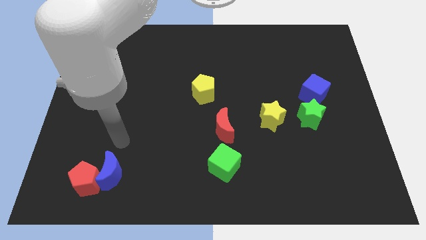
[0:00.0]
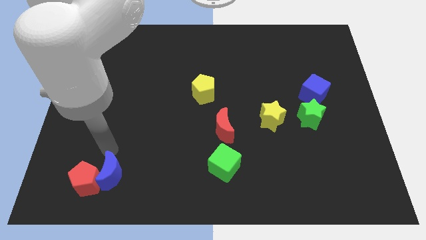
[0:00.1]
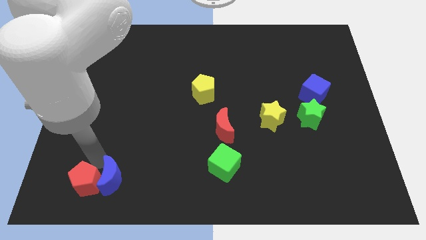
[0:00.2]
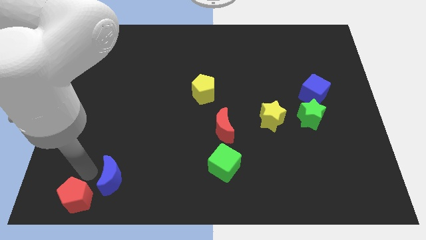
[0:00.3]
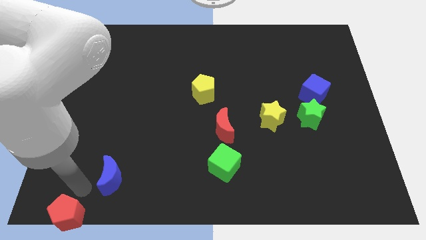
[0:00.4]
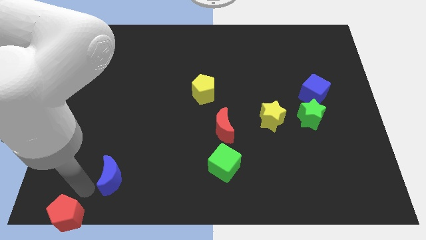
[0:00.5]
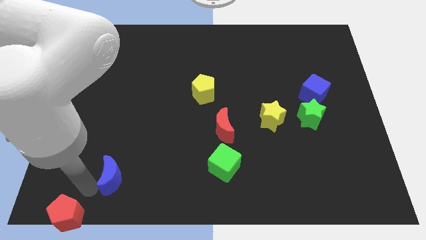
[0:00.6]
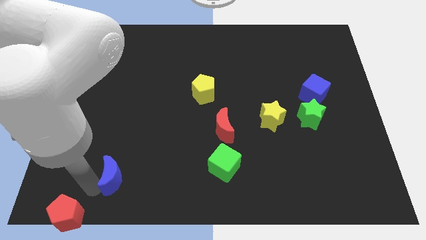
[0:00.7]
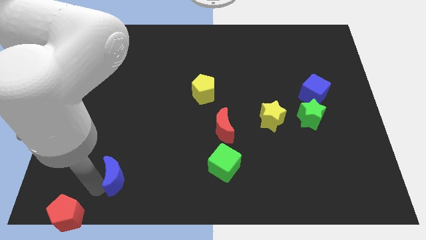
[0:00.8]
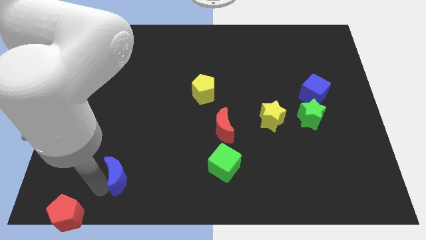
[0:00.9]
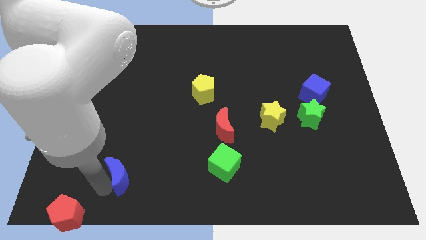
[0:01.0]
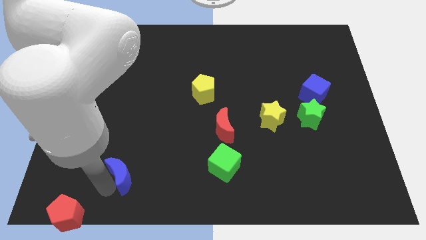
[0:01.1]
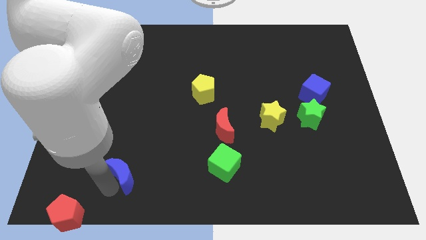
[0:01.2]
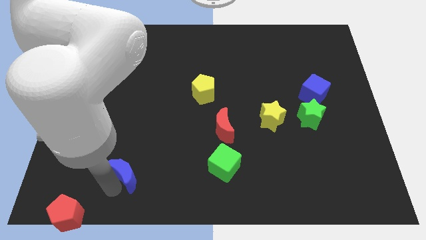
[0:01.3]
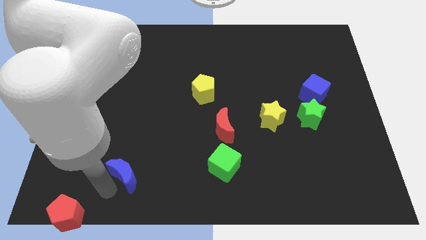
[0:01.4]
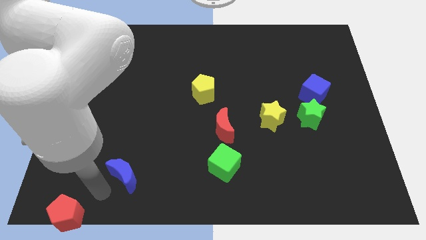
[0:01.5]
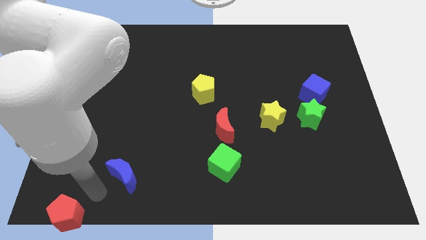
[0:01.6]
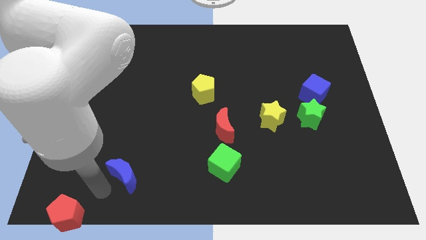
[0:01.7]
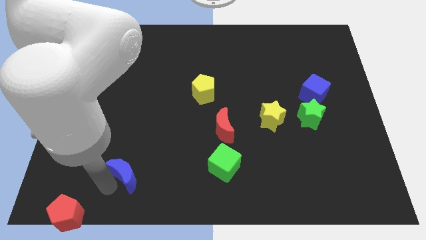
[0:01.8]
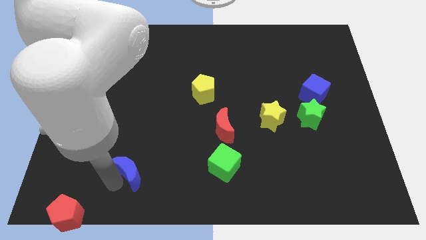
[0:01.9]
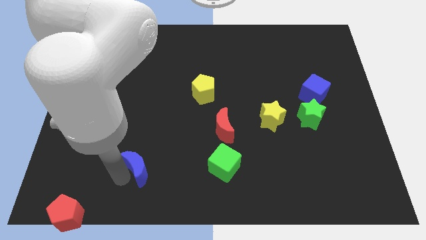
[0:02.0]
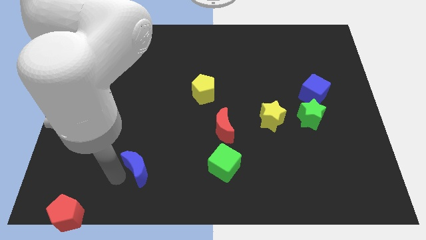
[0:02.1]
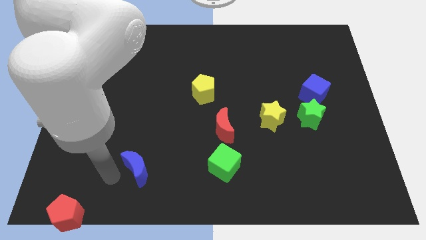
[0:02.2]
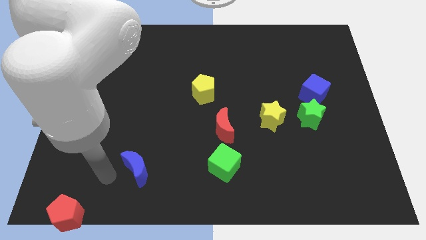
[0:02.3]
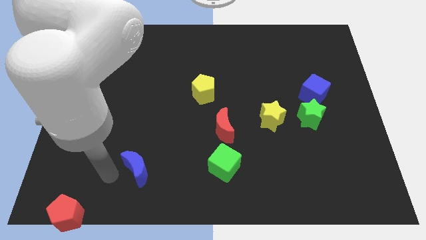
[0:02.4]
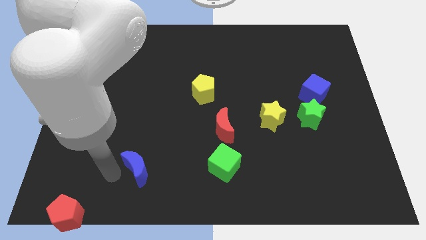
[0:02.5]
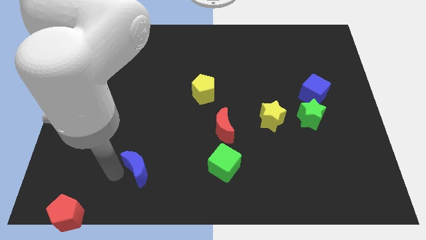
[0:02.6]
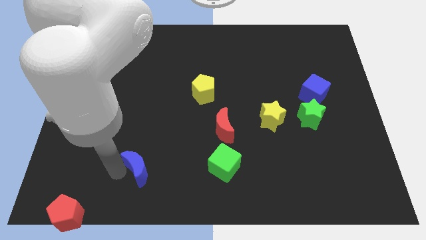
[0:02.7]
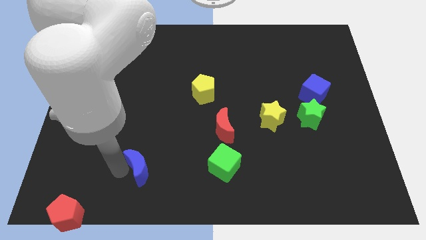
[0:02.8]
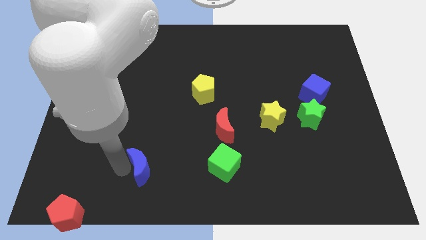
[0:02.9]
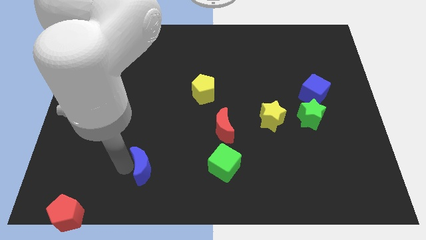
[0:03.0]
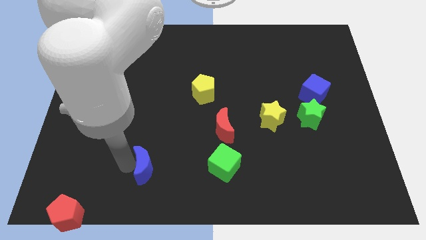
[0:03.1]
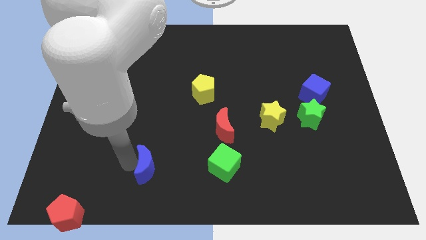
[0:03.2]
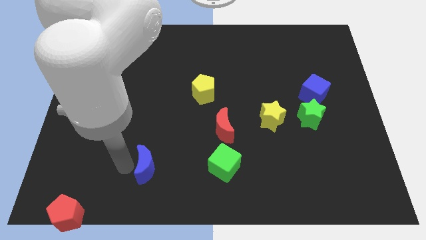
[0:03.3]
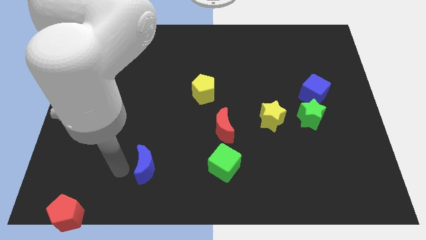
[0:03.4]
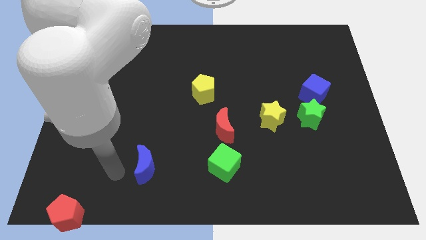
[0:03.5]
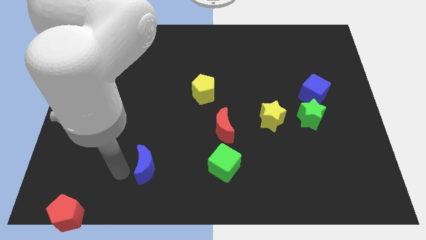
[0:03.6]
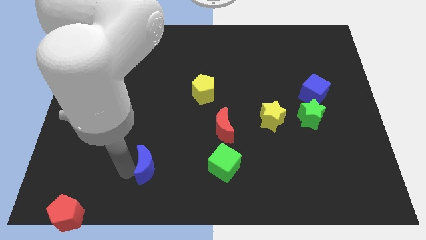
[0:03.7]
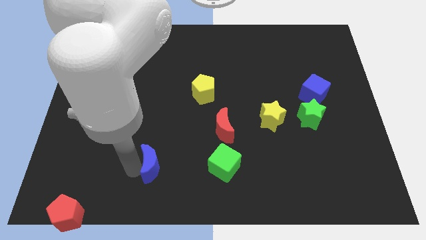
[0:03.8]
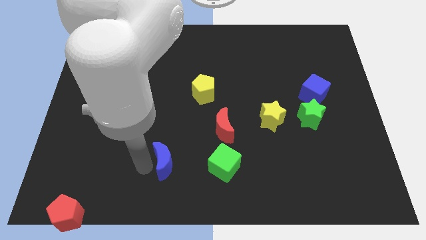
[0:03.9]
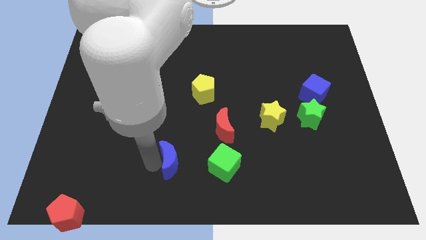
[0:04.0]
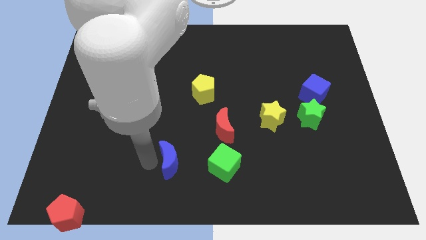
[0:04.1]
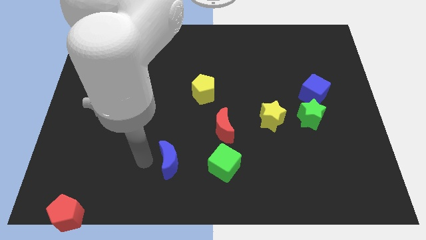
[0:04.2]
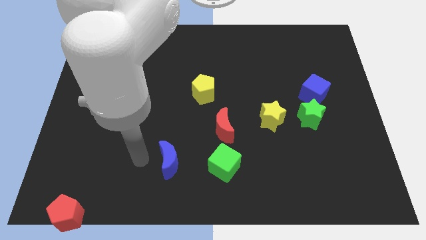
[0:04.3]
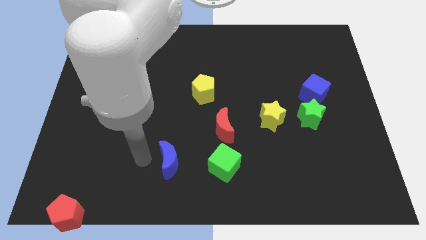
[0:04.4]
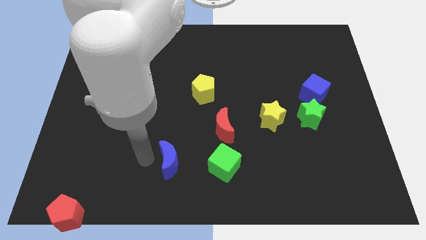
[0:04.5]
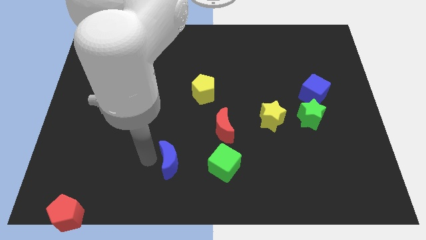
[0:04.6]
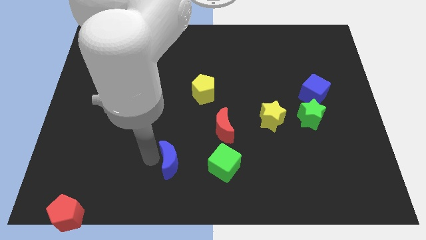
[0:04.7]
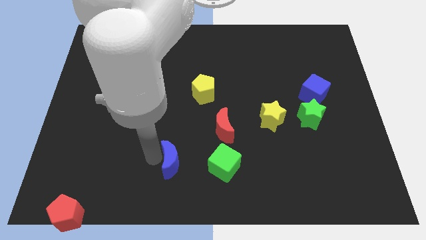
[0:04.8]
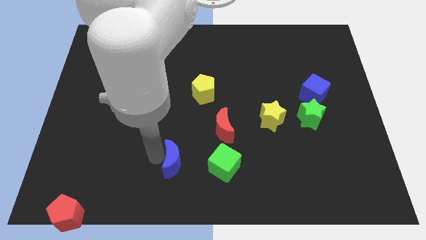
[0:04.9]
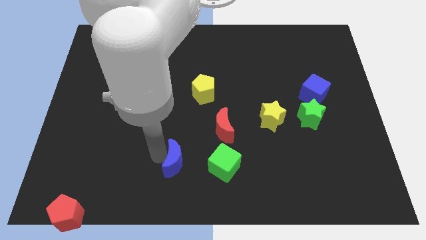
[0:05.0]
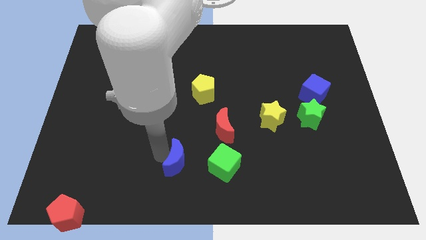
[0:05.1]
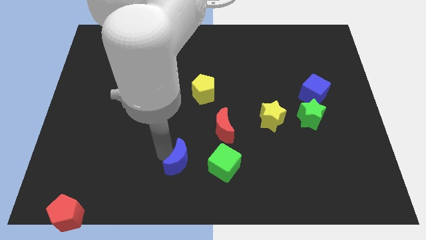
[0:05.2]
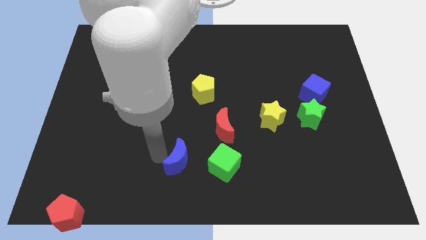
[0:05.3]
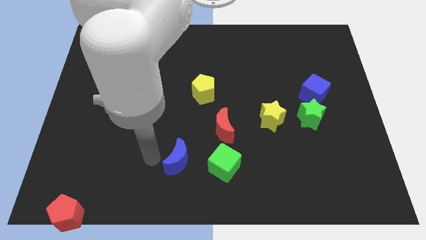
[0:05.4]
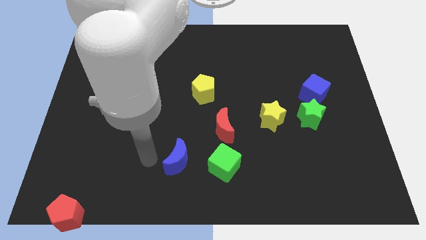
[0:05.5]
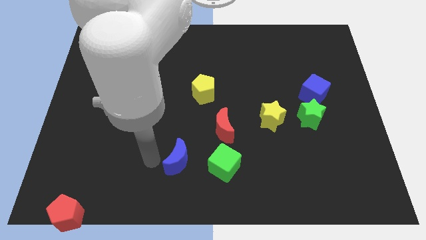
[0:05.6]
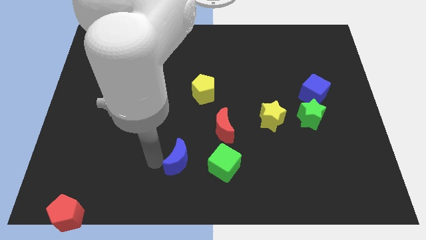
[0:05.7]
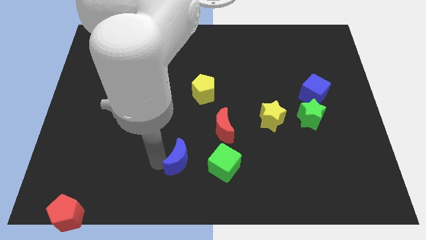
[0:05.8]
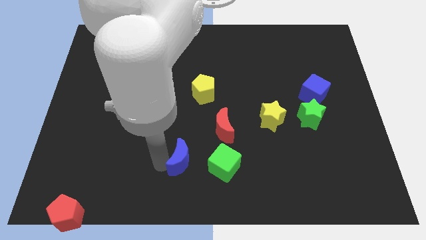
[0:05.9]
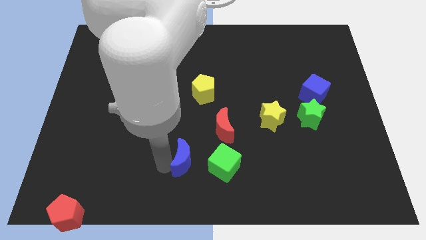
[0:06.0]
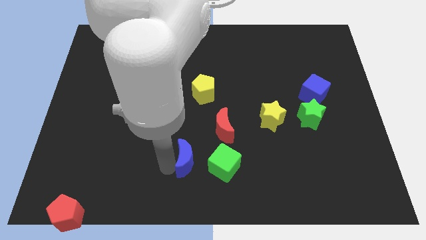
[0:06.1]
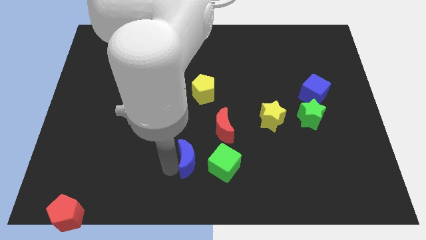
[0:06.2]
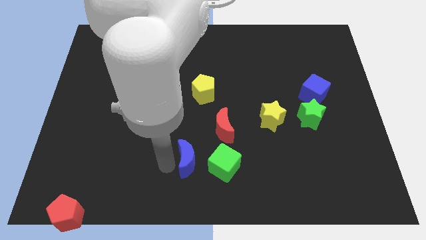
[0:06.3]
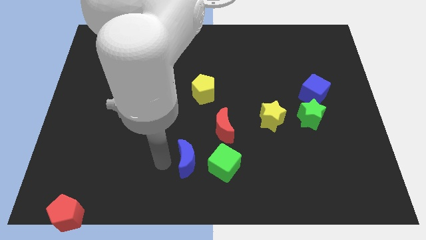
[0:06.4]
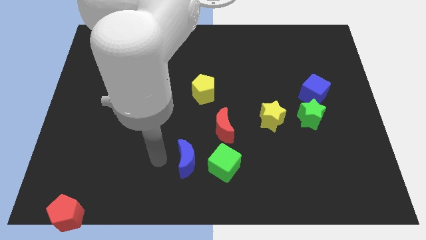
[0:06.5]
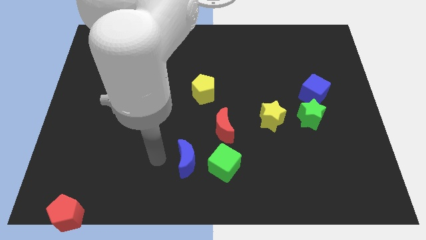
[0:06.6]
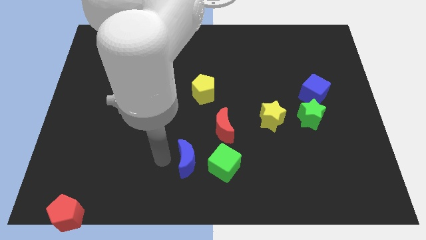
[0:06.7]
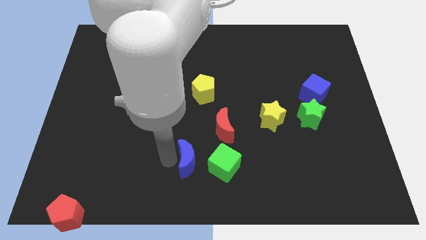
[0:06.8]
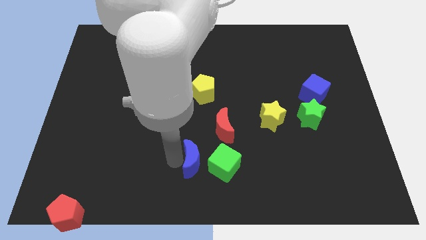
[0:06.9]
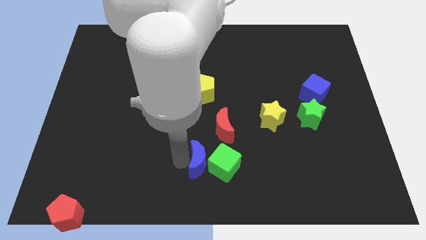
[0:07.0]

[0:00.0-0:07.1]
put the blue moon towards the green cube

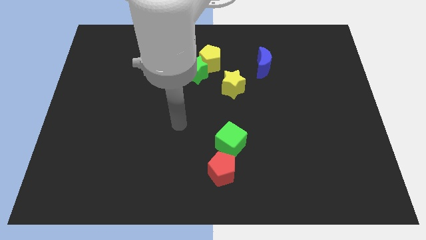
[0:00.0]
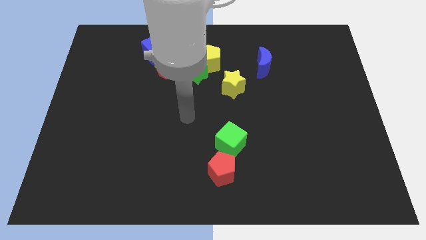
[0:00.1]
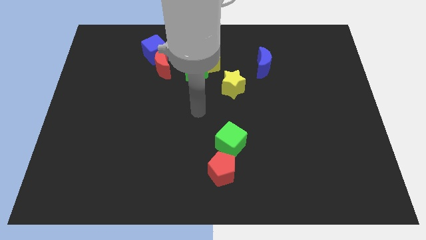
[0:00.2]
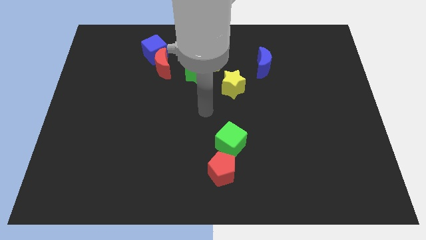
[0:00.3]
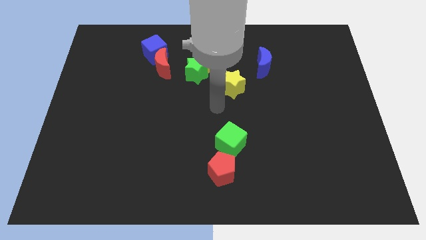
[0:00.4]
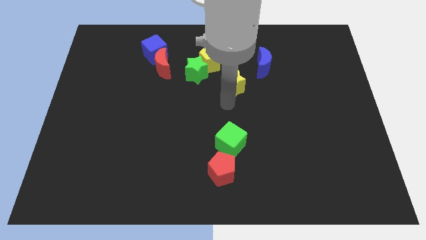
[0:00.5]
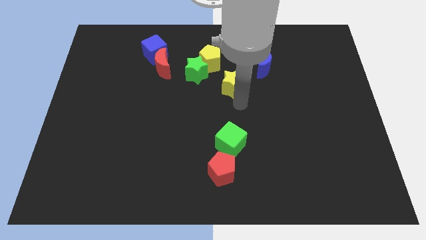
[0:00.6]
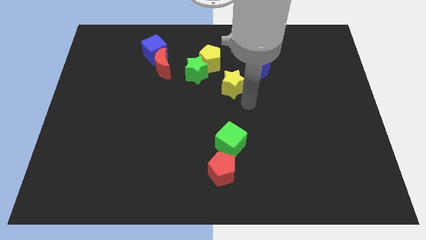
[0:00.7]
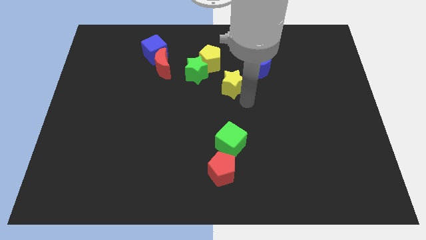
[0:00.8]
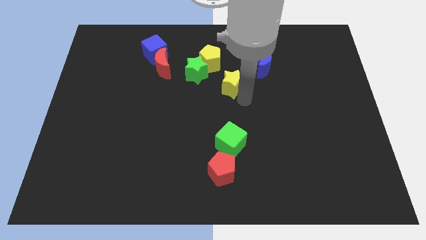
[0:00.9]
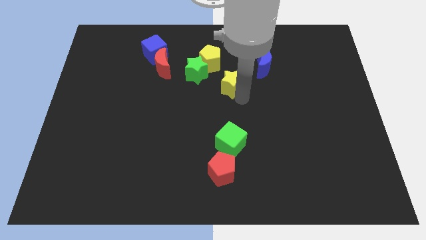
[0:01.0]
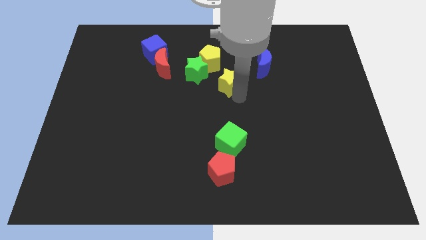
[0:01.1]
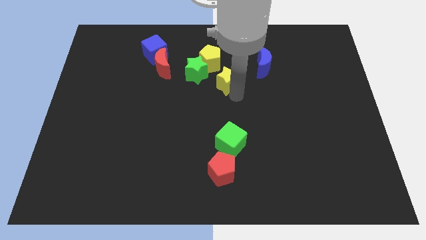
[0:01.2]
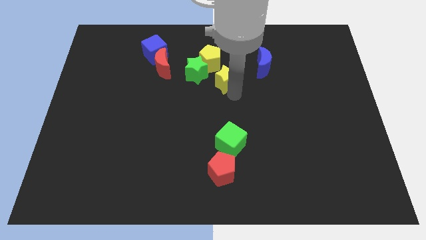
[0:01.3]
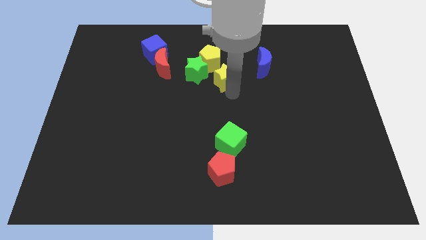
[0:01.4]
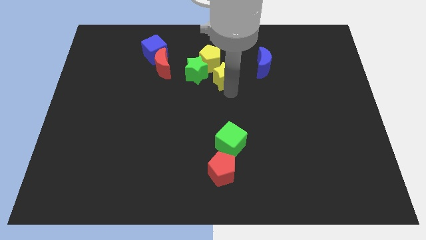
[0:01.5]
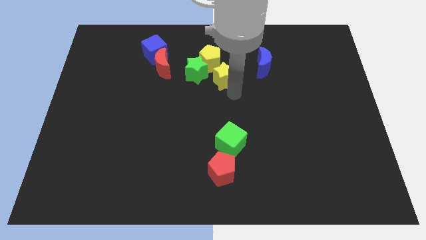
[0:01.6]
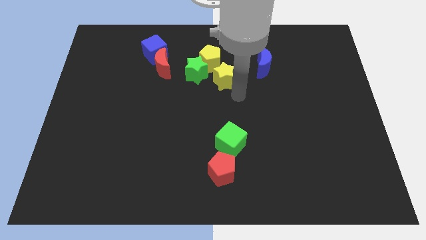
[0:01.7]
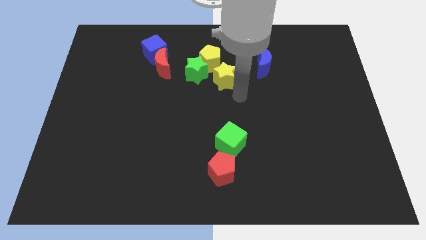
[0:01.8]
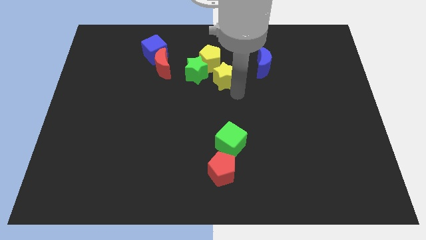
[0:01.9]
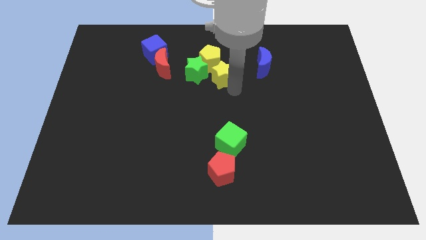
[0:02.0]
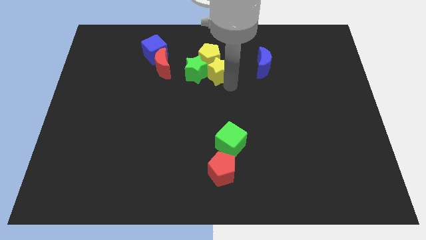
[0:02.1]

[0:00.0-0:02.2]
move the yellow star next to the yellow pentagon
